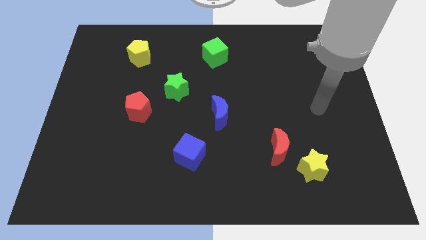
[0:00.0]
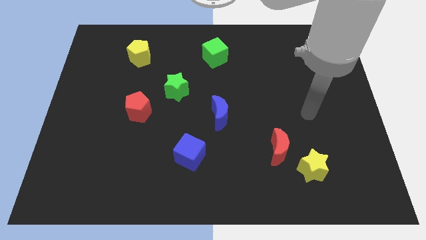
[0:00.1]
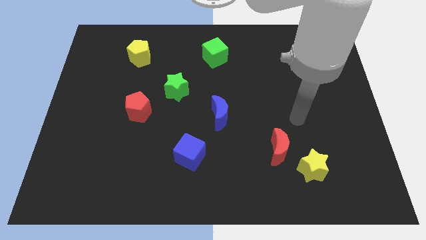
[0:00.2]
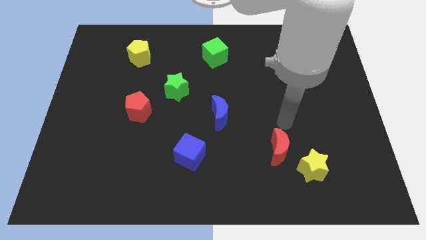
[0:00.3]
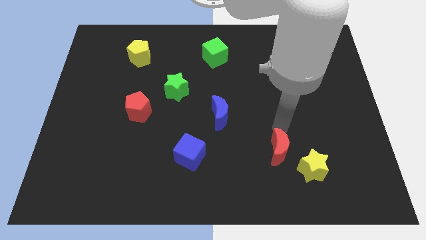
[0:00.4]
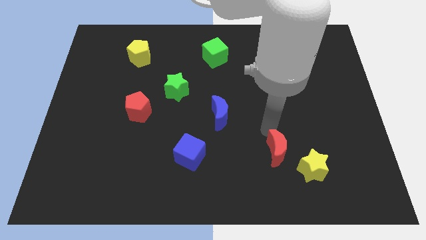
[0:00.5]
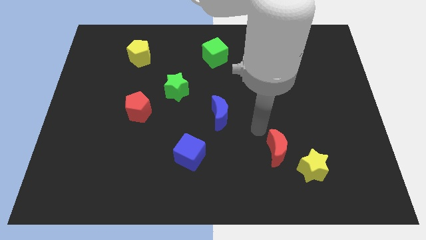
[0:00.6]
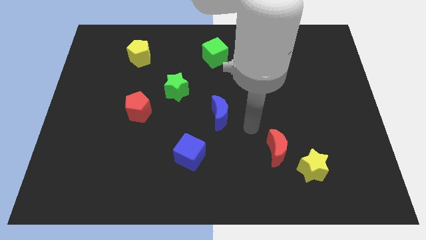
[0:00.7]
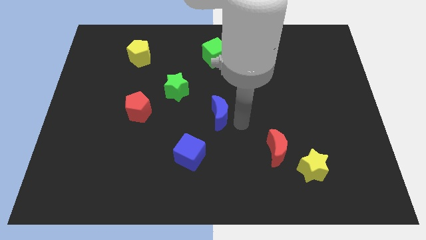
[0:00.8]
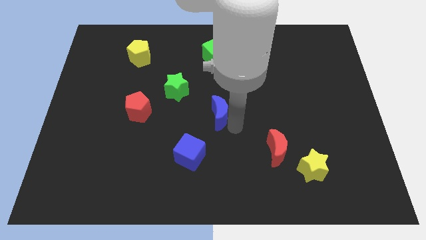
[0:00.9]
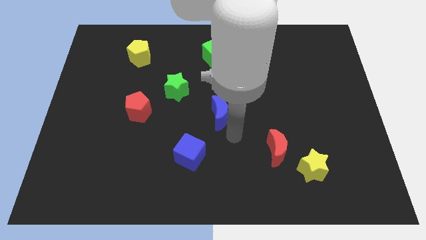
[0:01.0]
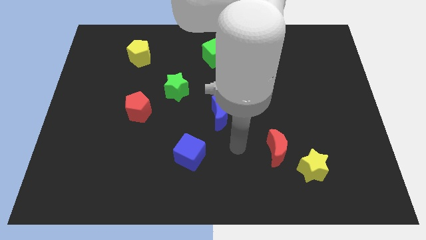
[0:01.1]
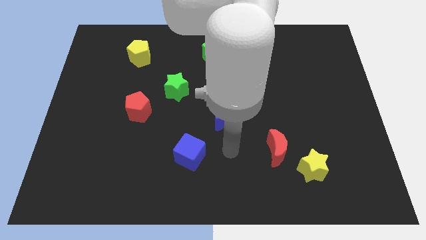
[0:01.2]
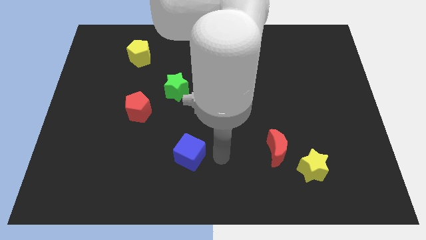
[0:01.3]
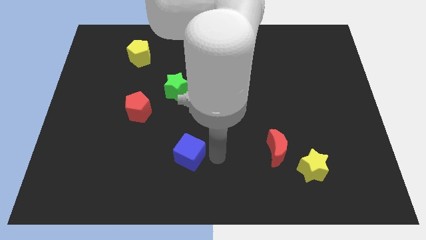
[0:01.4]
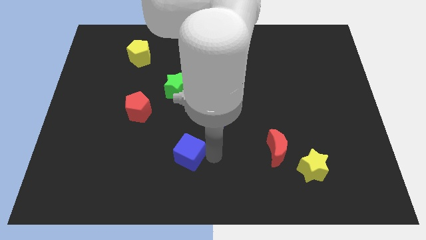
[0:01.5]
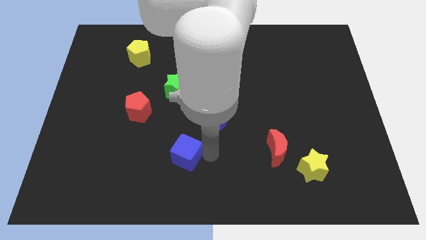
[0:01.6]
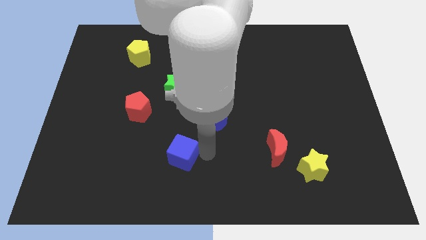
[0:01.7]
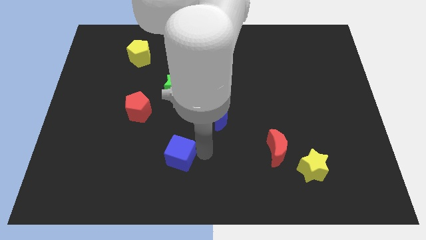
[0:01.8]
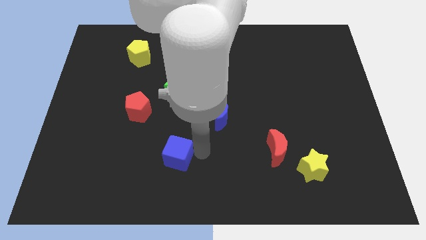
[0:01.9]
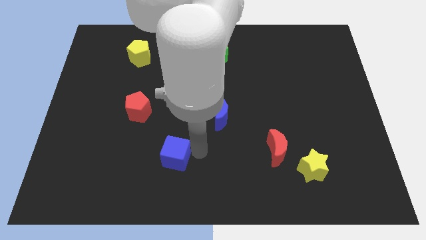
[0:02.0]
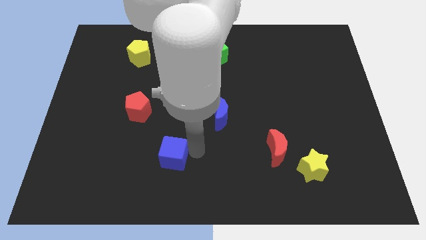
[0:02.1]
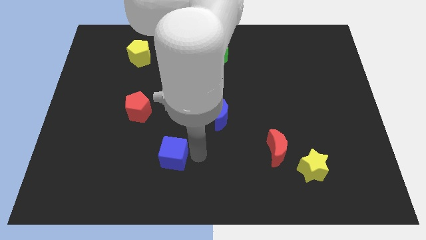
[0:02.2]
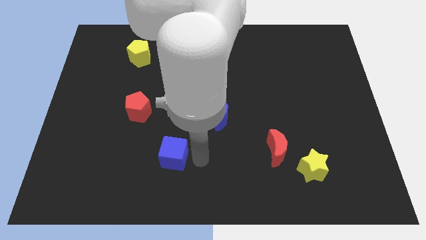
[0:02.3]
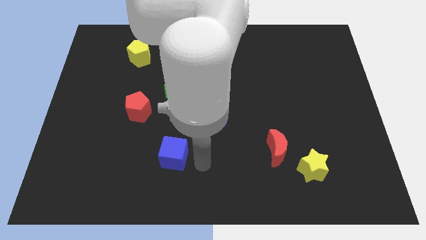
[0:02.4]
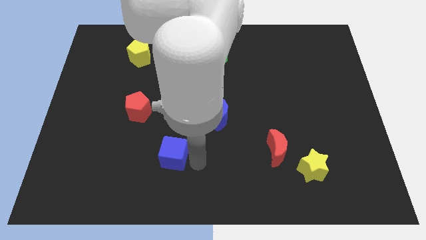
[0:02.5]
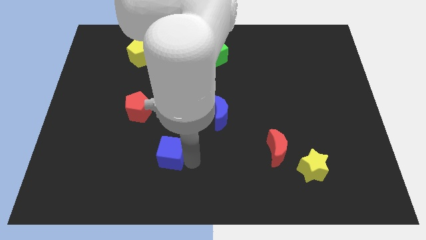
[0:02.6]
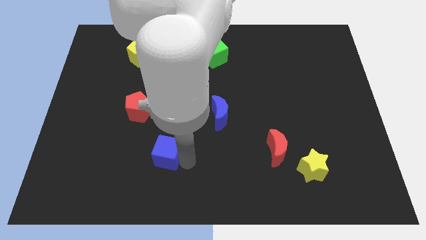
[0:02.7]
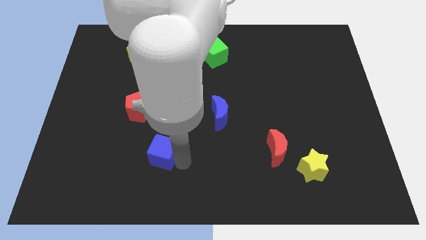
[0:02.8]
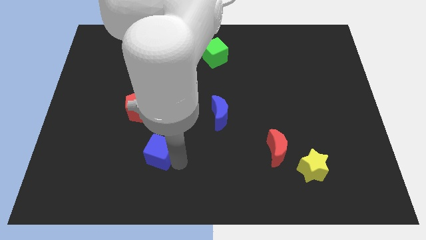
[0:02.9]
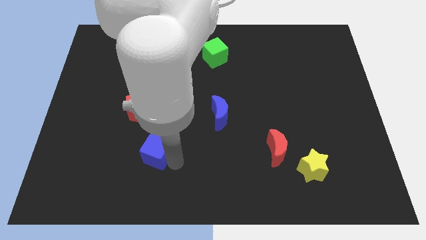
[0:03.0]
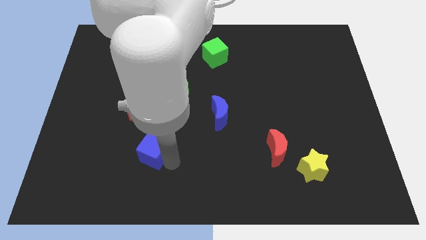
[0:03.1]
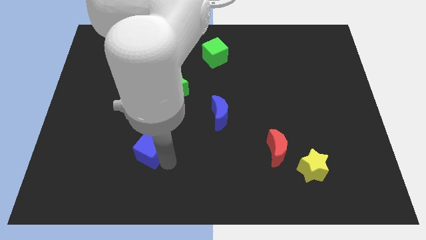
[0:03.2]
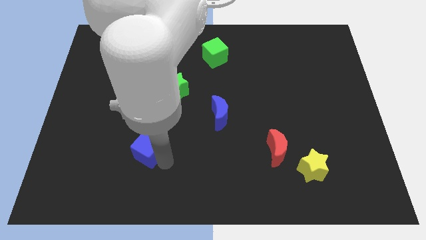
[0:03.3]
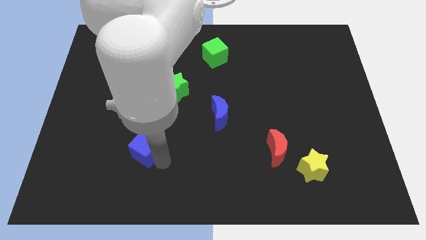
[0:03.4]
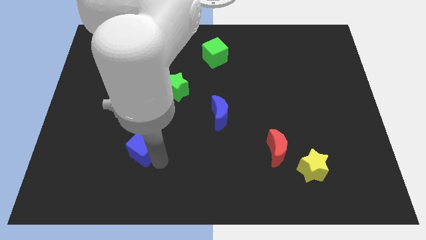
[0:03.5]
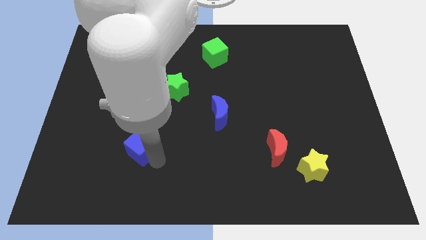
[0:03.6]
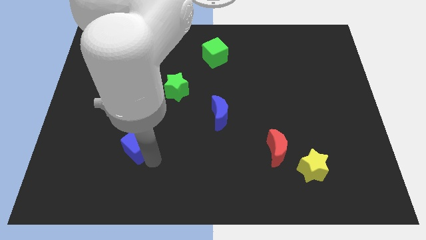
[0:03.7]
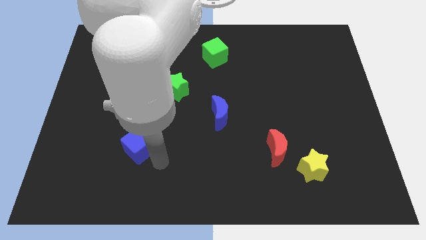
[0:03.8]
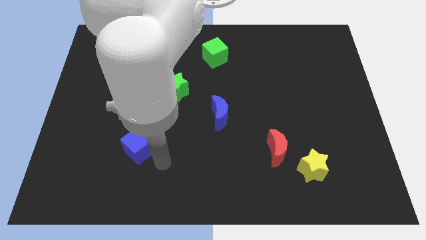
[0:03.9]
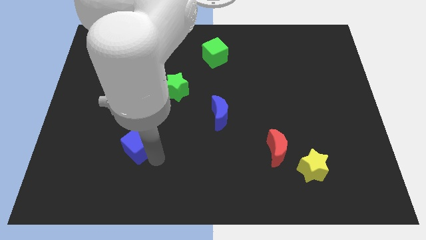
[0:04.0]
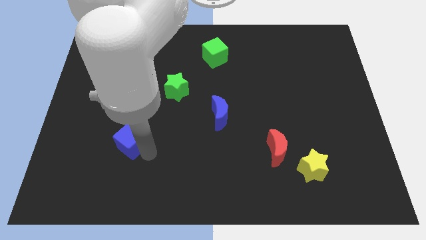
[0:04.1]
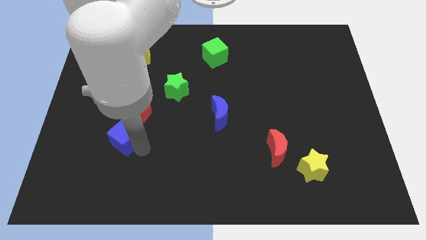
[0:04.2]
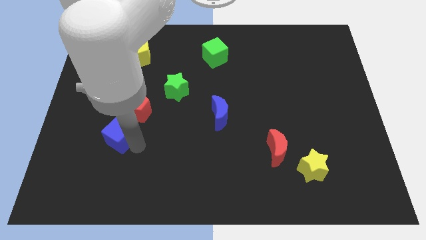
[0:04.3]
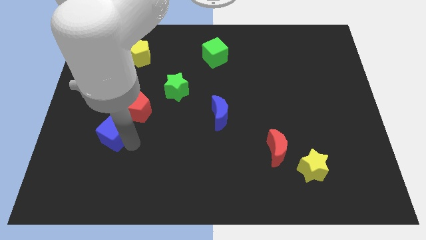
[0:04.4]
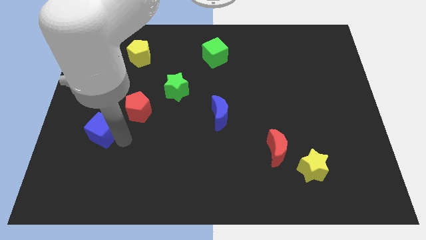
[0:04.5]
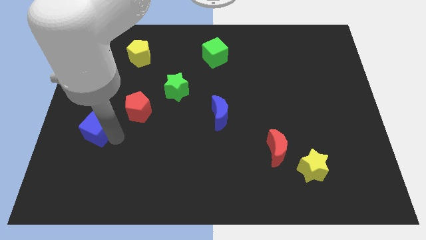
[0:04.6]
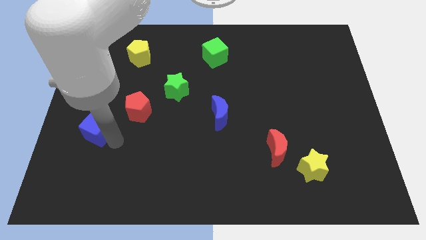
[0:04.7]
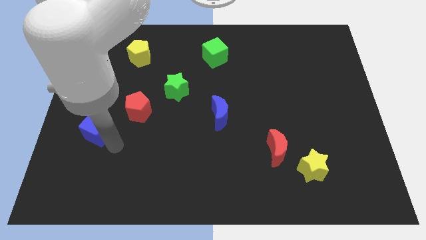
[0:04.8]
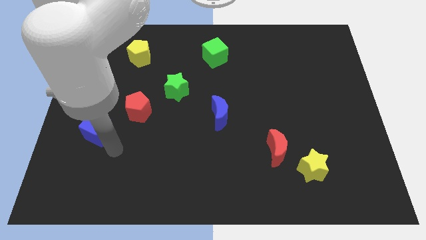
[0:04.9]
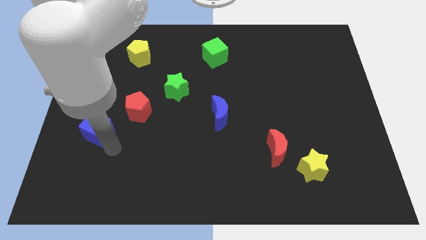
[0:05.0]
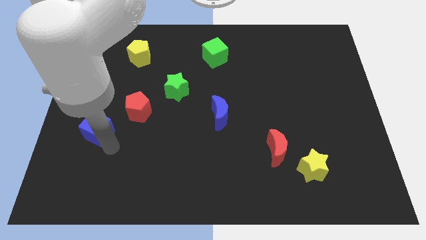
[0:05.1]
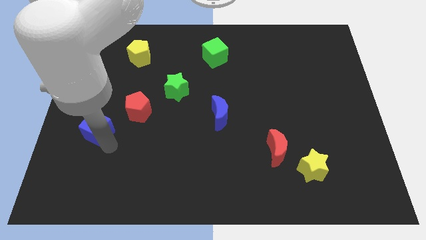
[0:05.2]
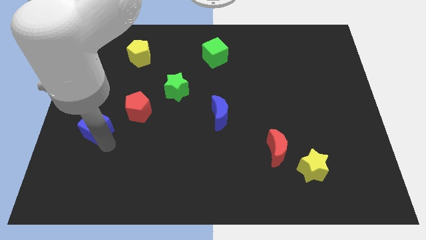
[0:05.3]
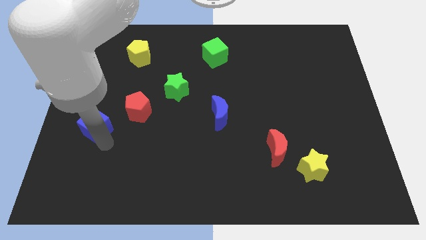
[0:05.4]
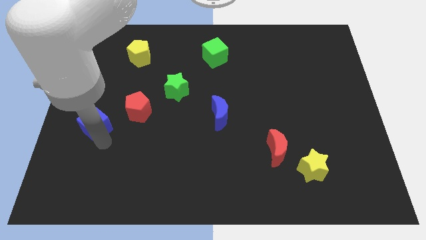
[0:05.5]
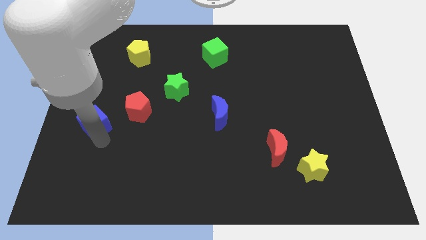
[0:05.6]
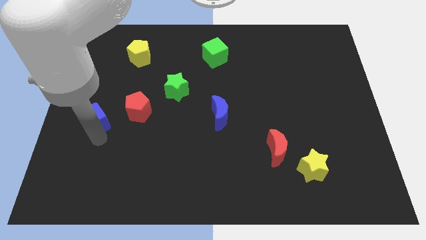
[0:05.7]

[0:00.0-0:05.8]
push the blue cube to the center left

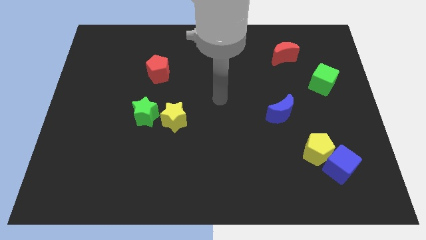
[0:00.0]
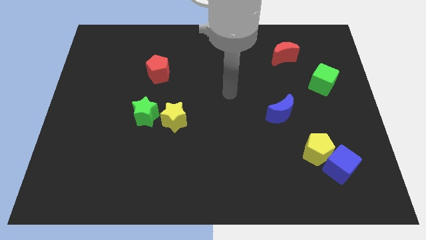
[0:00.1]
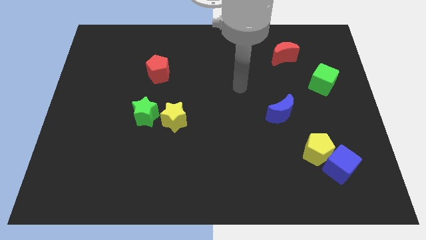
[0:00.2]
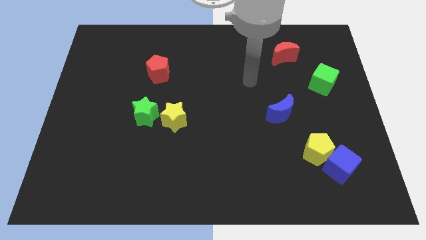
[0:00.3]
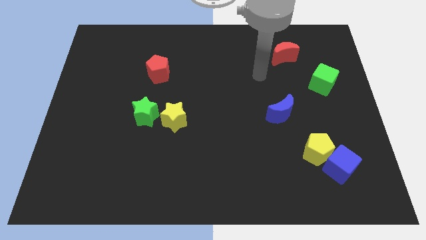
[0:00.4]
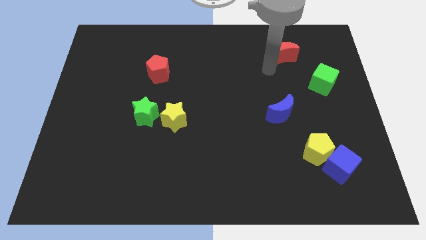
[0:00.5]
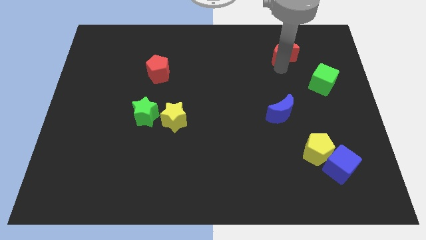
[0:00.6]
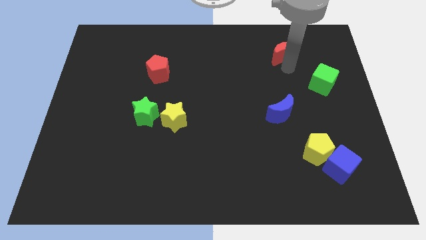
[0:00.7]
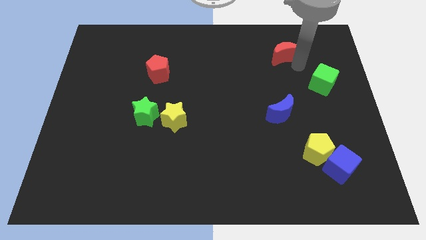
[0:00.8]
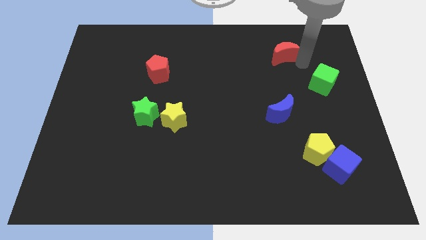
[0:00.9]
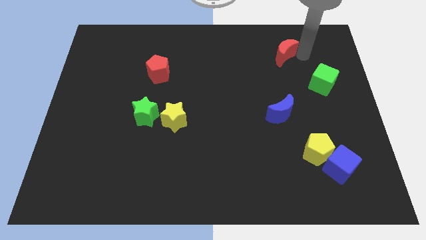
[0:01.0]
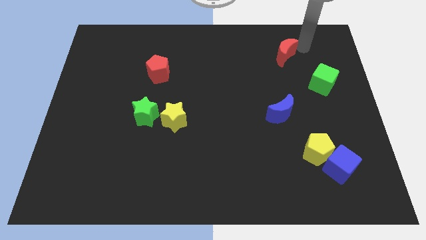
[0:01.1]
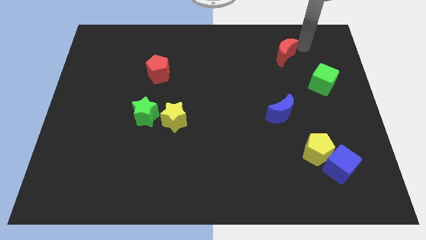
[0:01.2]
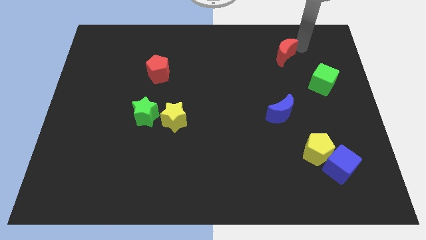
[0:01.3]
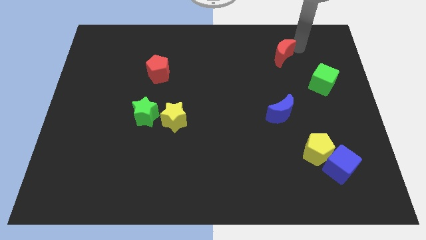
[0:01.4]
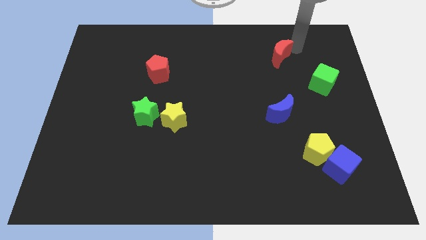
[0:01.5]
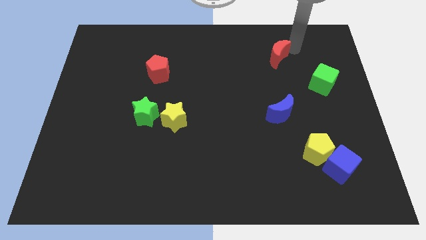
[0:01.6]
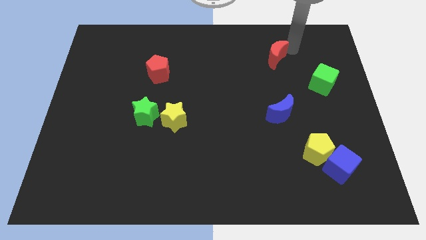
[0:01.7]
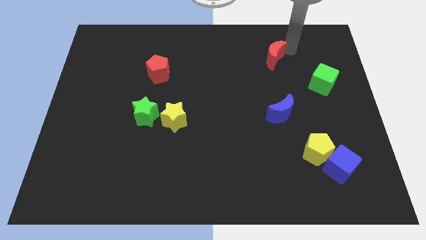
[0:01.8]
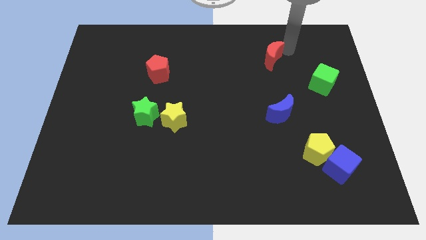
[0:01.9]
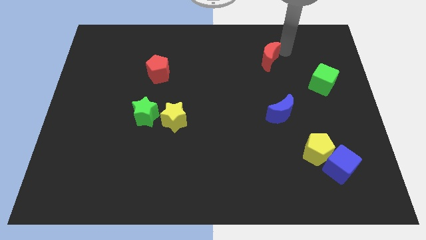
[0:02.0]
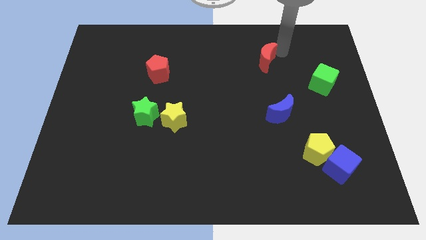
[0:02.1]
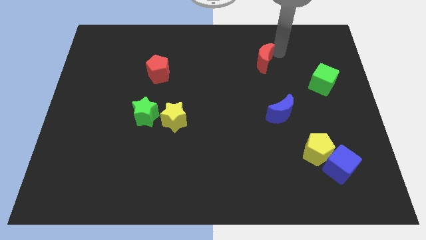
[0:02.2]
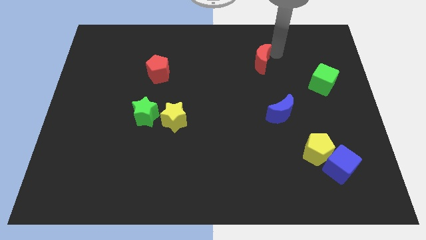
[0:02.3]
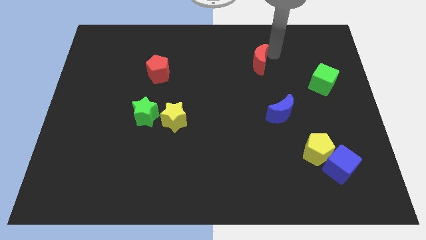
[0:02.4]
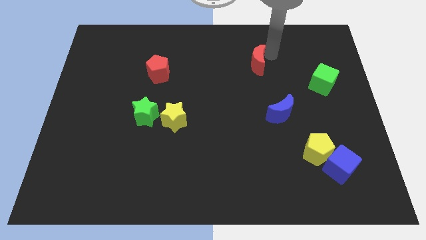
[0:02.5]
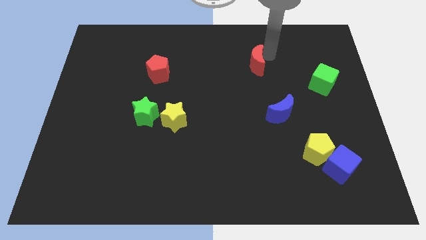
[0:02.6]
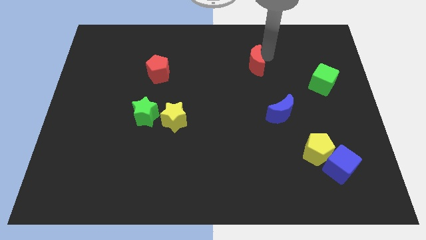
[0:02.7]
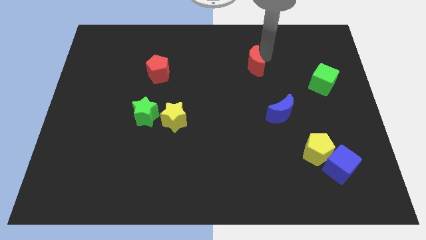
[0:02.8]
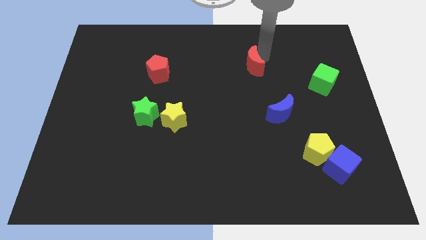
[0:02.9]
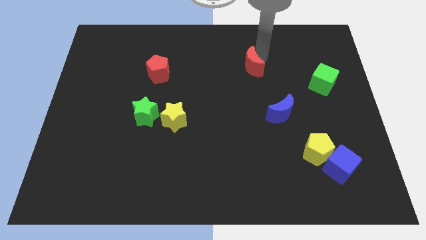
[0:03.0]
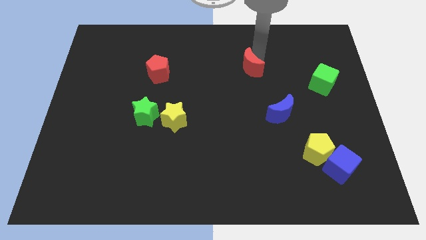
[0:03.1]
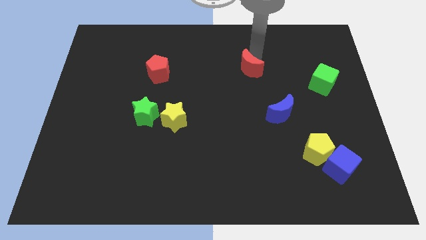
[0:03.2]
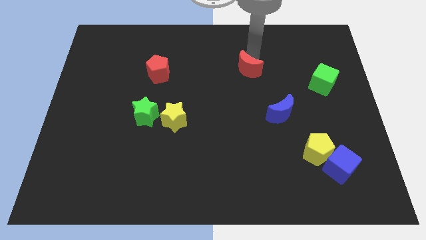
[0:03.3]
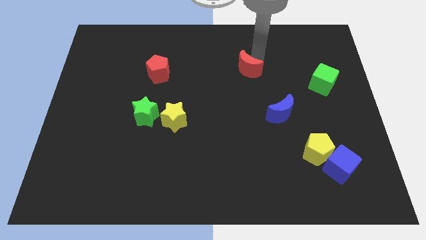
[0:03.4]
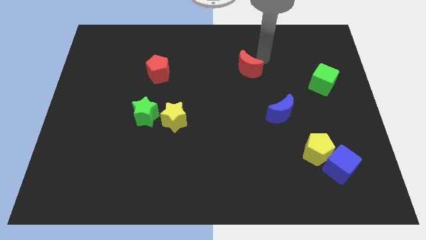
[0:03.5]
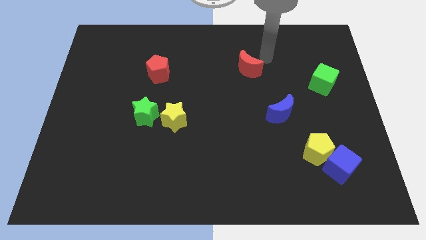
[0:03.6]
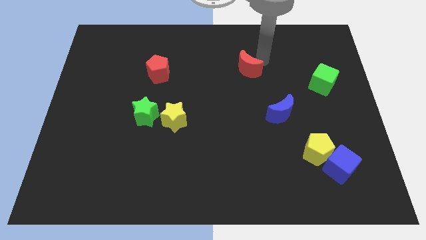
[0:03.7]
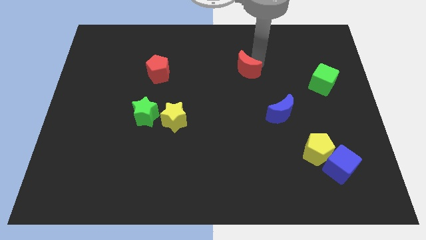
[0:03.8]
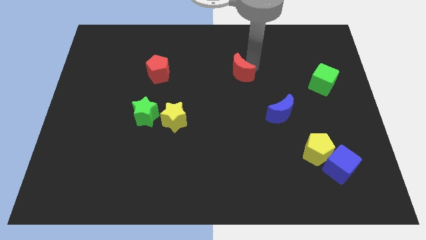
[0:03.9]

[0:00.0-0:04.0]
move the red moon to the middle
